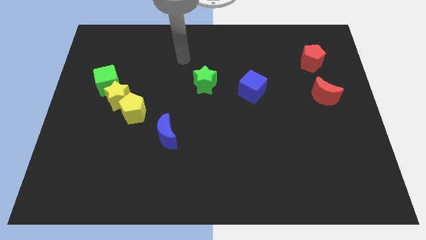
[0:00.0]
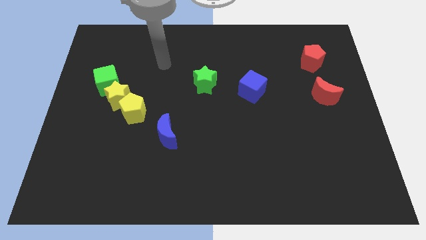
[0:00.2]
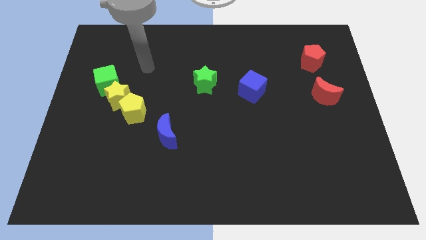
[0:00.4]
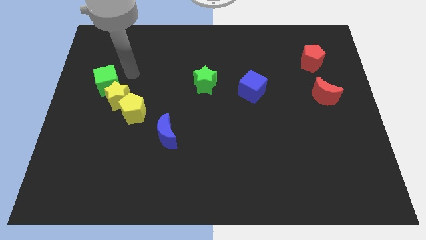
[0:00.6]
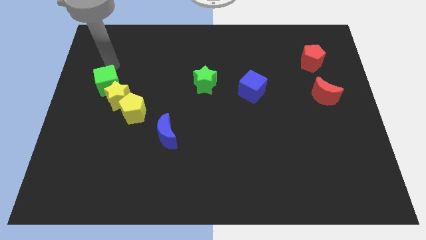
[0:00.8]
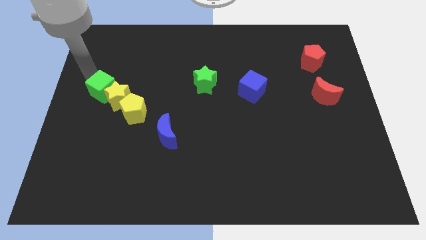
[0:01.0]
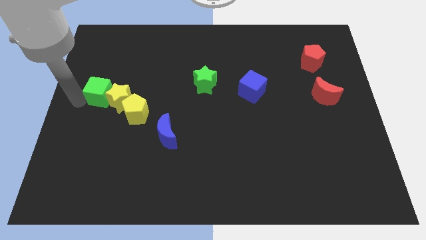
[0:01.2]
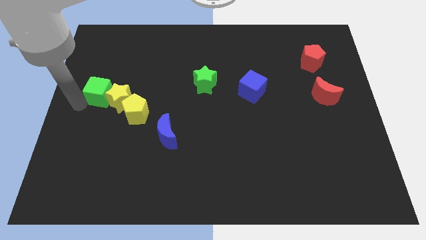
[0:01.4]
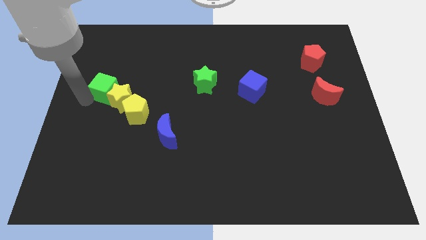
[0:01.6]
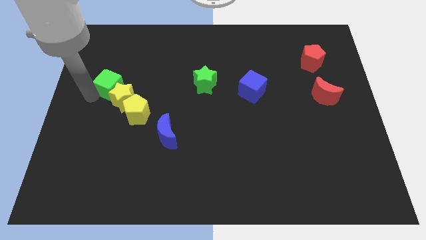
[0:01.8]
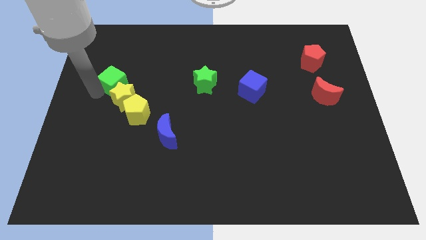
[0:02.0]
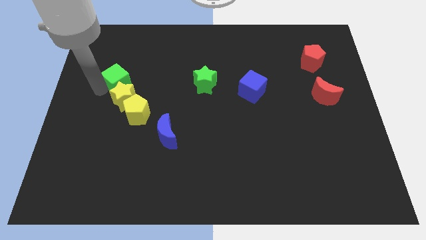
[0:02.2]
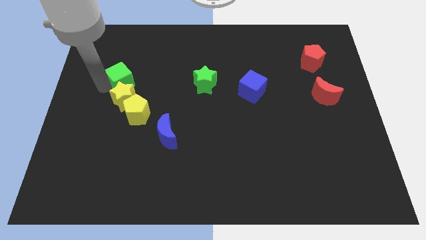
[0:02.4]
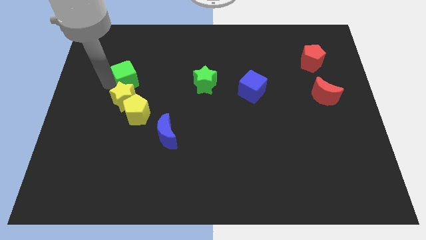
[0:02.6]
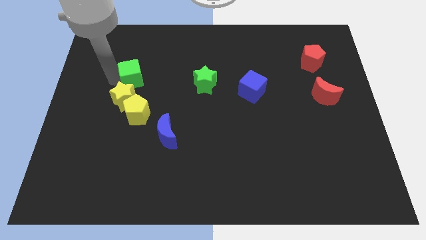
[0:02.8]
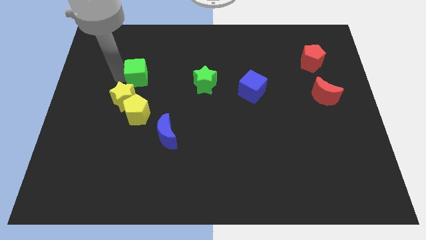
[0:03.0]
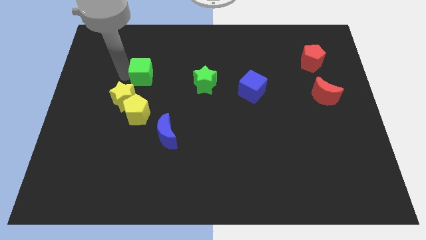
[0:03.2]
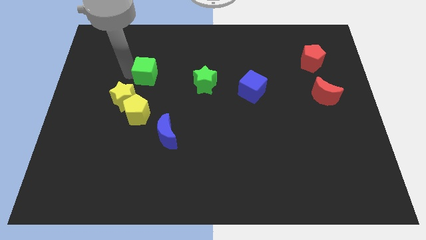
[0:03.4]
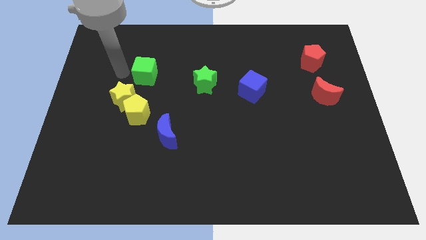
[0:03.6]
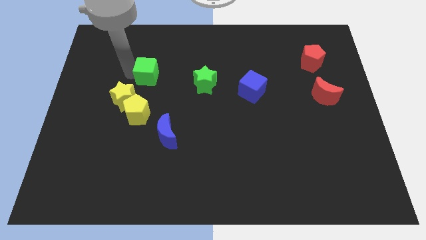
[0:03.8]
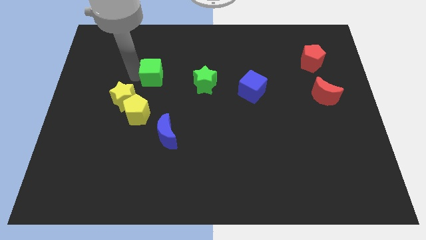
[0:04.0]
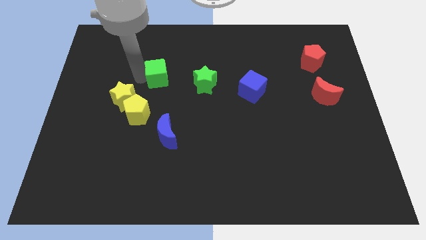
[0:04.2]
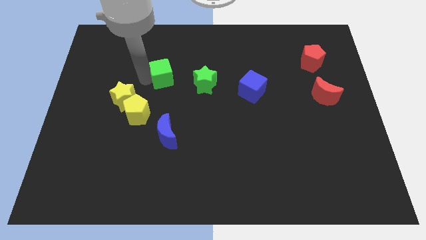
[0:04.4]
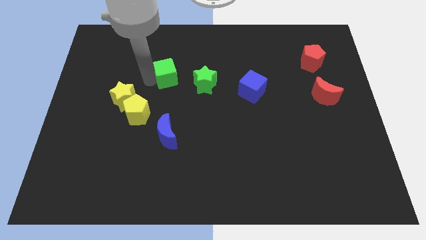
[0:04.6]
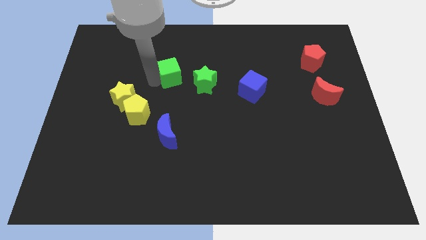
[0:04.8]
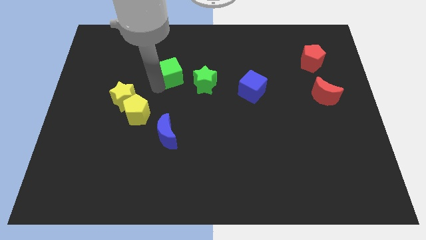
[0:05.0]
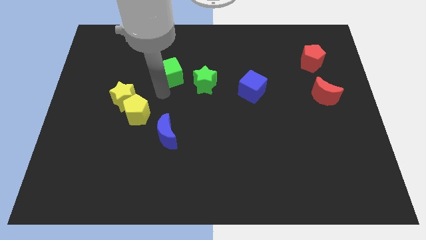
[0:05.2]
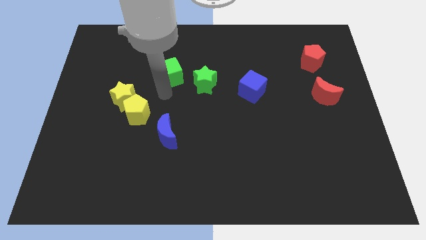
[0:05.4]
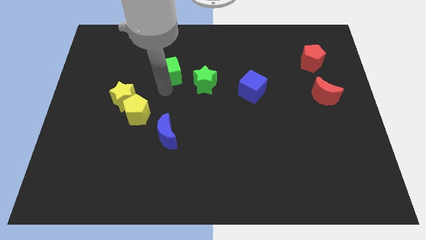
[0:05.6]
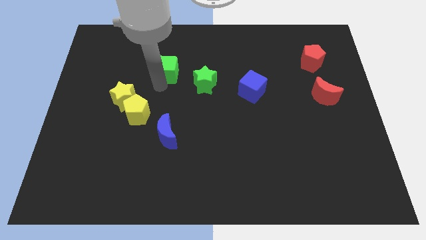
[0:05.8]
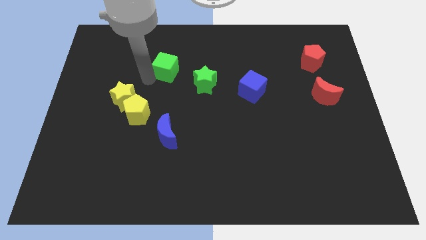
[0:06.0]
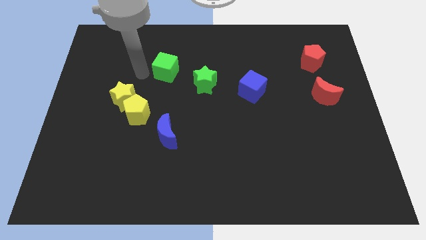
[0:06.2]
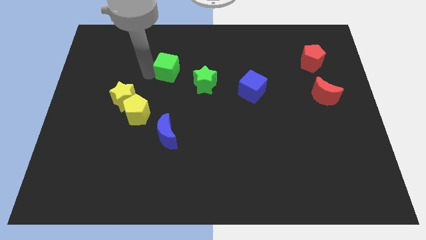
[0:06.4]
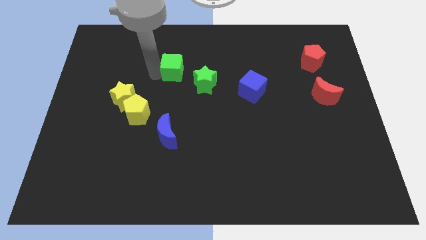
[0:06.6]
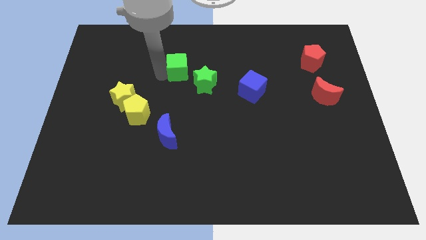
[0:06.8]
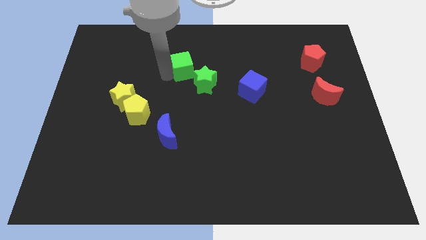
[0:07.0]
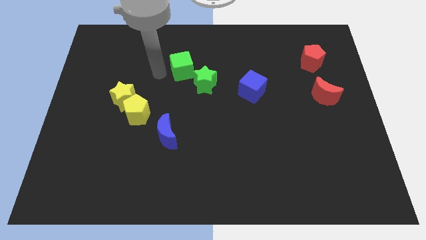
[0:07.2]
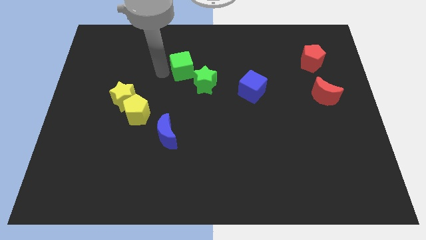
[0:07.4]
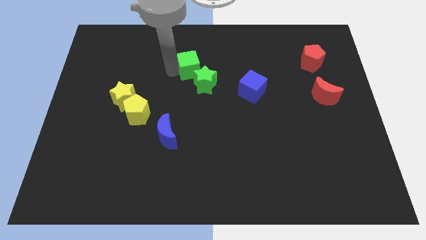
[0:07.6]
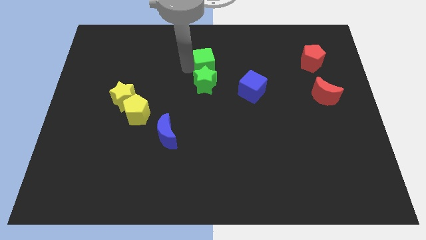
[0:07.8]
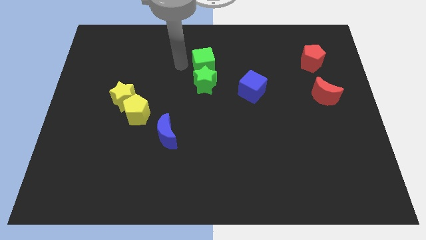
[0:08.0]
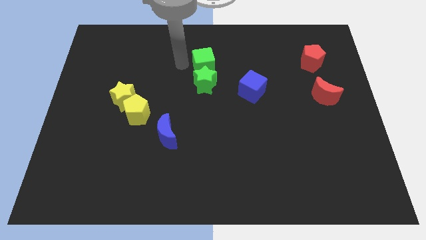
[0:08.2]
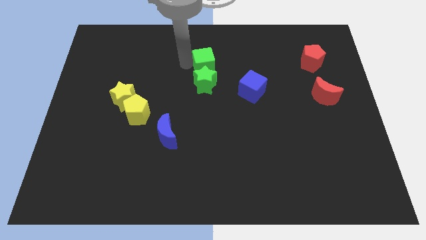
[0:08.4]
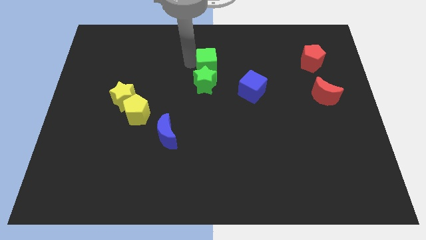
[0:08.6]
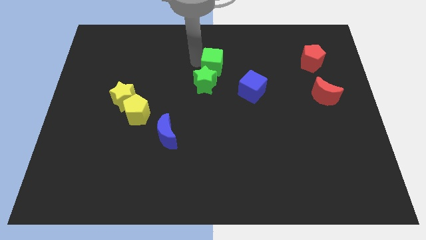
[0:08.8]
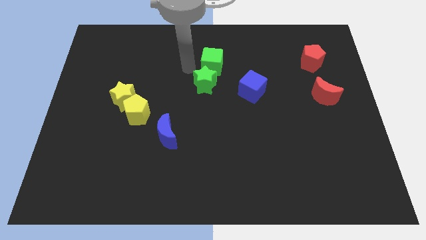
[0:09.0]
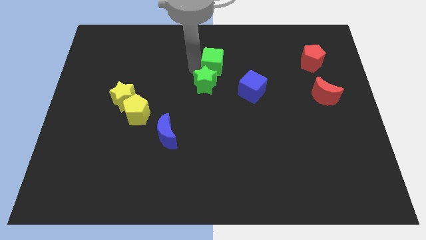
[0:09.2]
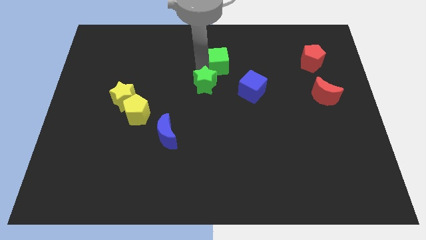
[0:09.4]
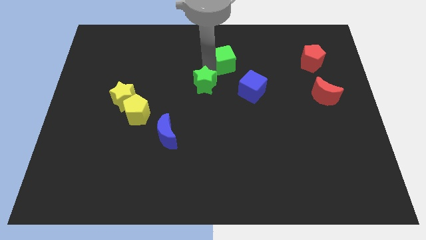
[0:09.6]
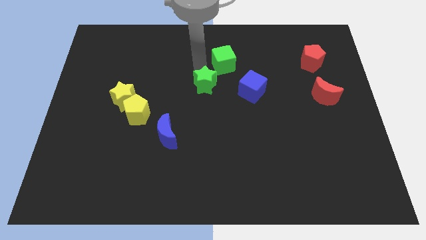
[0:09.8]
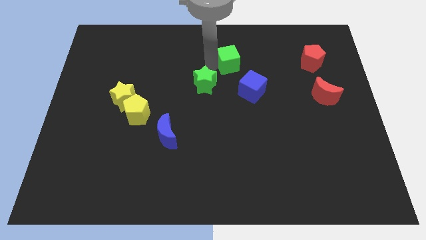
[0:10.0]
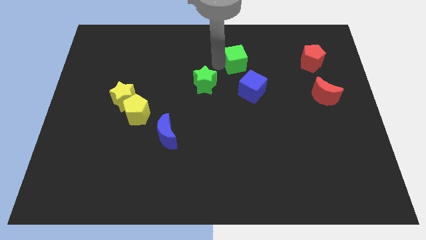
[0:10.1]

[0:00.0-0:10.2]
put the green cube to the top side of the blue cube

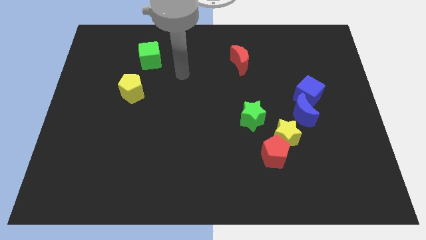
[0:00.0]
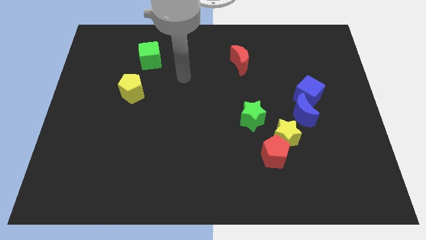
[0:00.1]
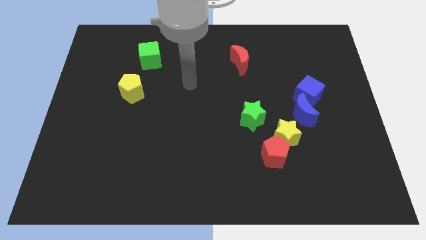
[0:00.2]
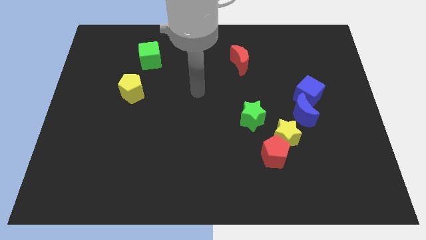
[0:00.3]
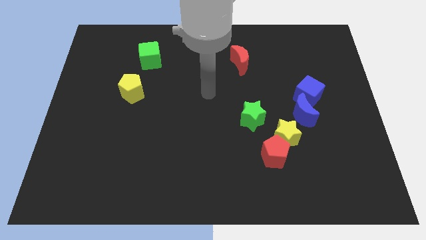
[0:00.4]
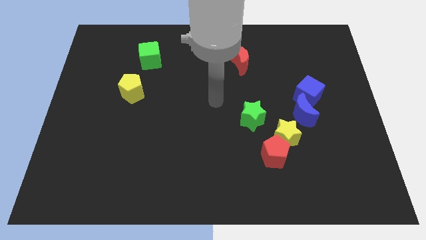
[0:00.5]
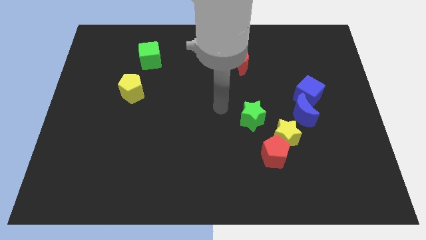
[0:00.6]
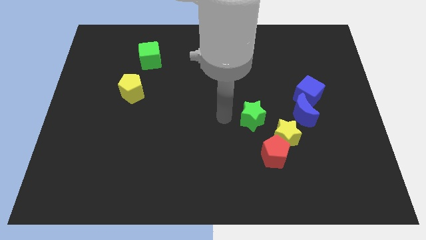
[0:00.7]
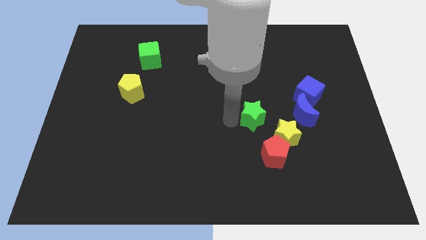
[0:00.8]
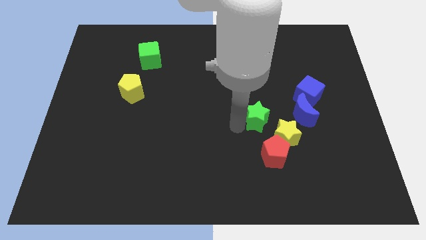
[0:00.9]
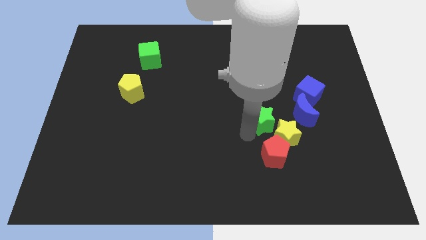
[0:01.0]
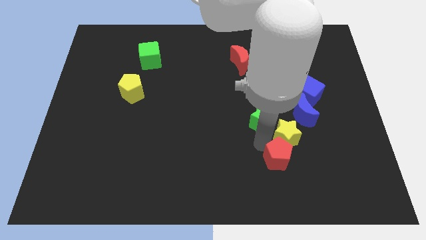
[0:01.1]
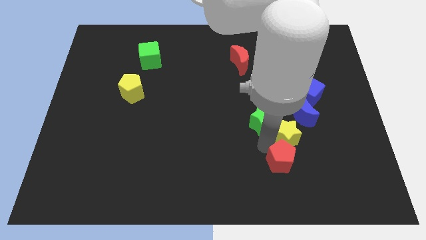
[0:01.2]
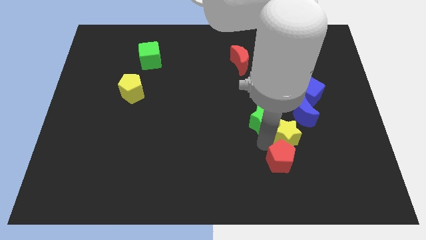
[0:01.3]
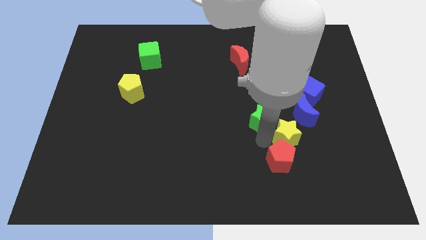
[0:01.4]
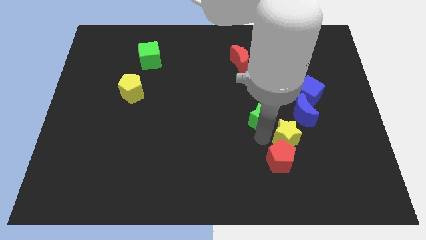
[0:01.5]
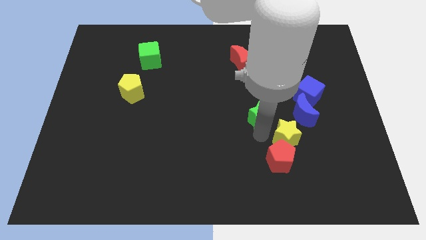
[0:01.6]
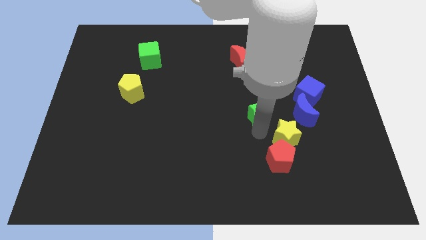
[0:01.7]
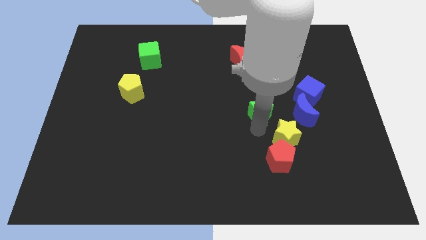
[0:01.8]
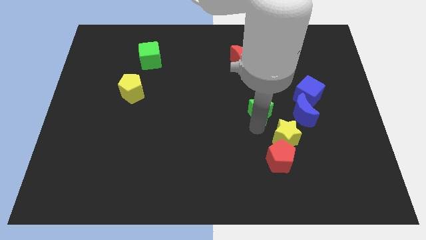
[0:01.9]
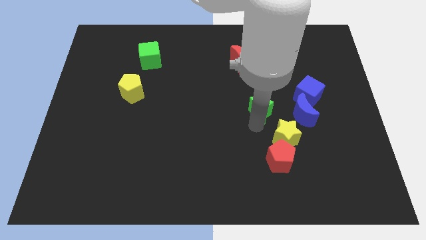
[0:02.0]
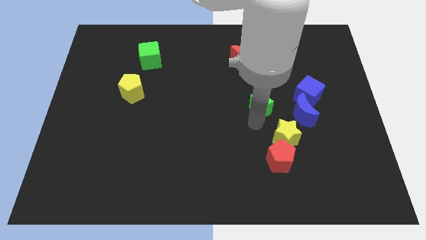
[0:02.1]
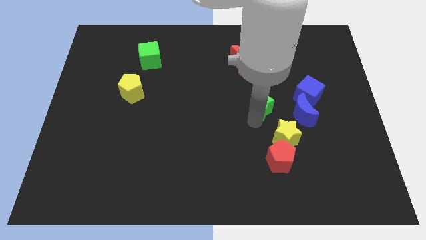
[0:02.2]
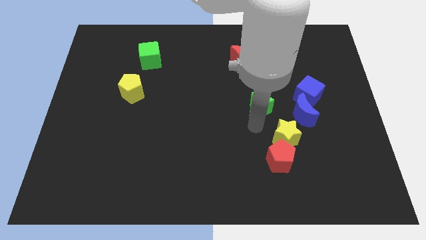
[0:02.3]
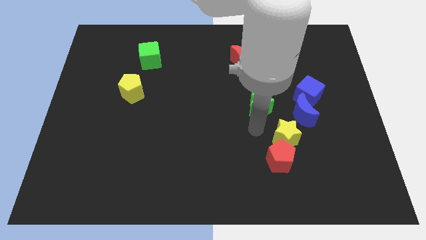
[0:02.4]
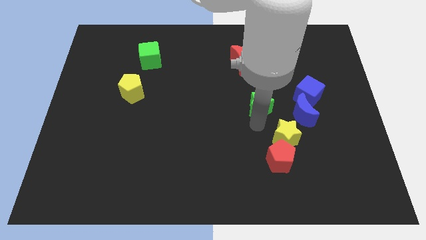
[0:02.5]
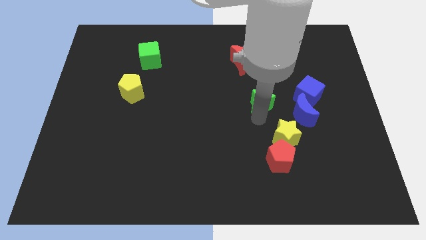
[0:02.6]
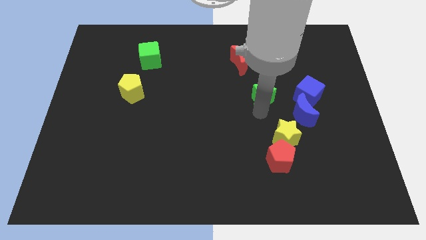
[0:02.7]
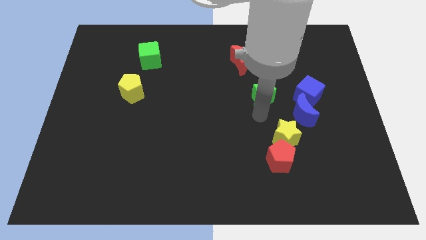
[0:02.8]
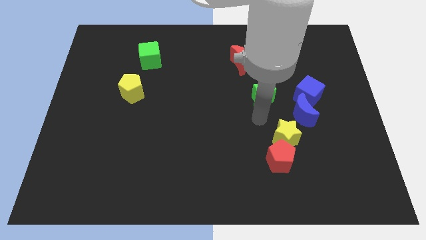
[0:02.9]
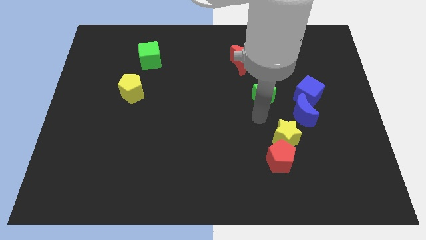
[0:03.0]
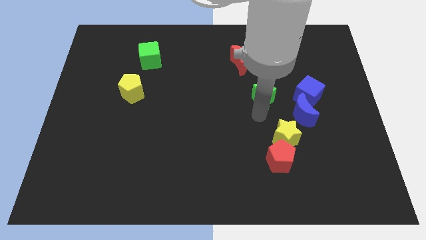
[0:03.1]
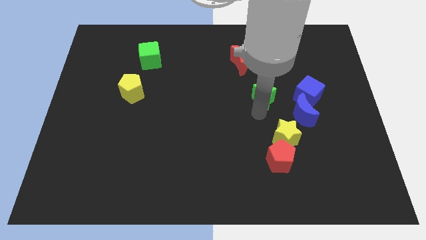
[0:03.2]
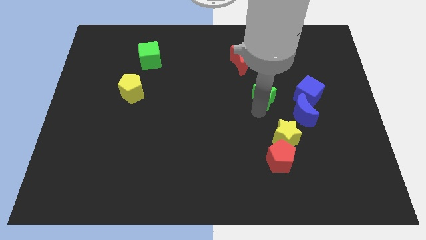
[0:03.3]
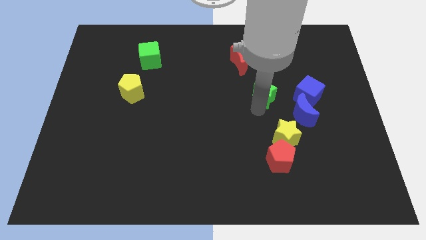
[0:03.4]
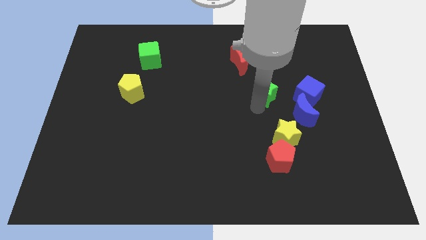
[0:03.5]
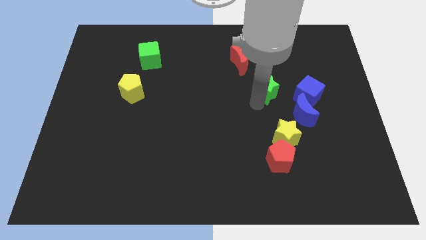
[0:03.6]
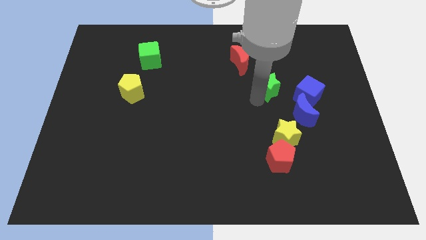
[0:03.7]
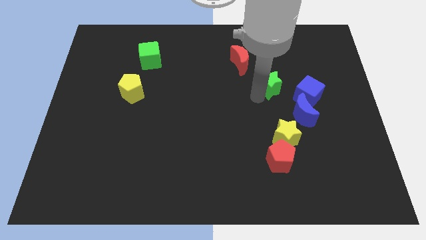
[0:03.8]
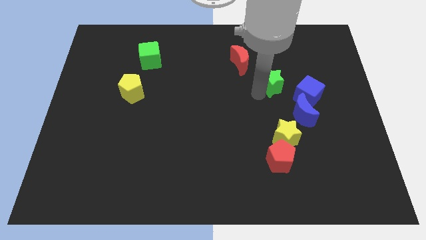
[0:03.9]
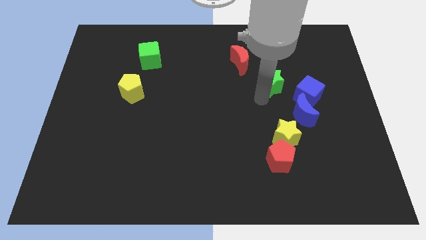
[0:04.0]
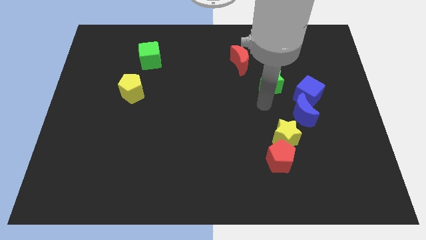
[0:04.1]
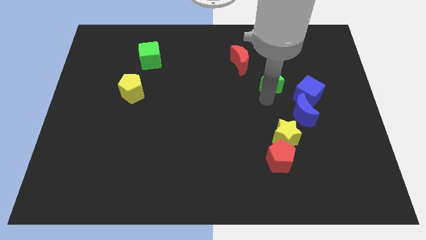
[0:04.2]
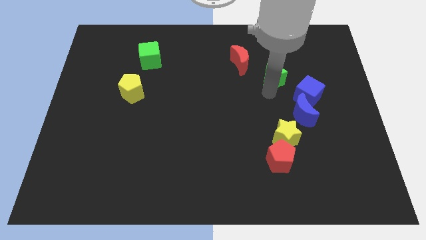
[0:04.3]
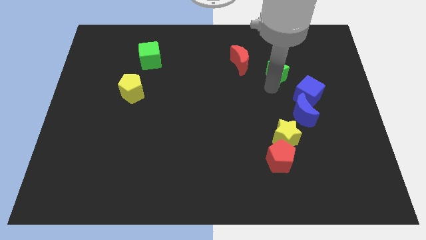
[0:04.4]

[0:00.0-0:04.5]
put the green star to the right of the red moon
